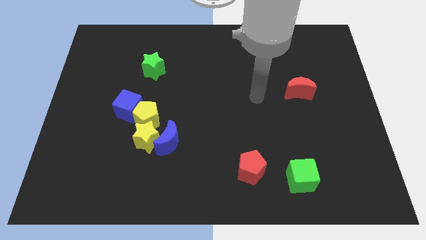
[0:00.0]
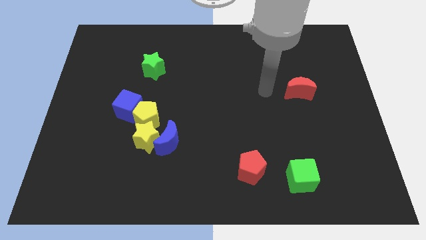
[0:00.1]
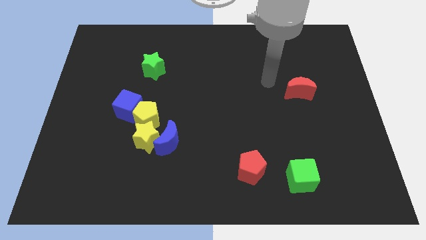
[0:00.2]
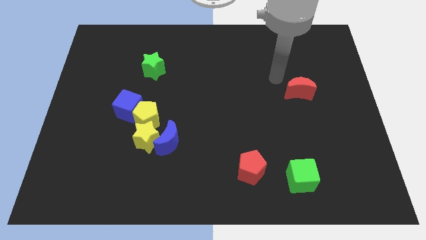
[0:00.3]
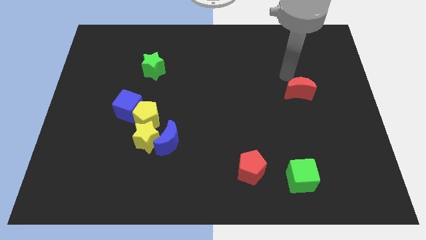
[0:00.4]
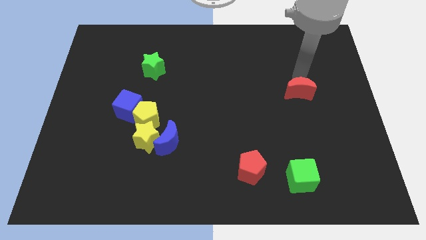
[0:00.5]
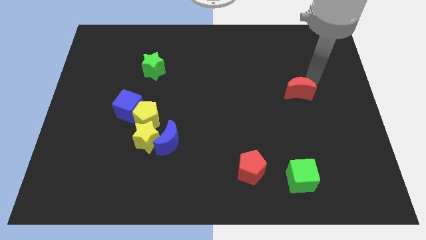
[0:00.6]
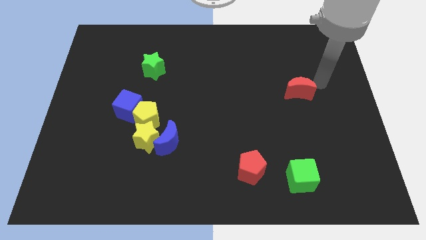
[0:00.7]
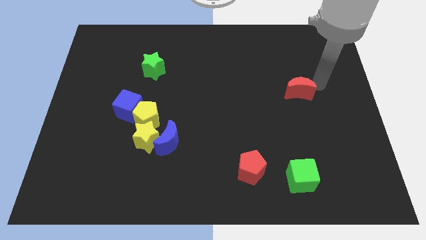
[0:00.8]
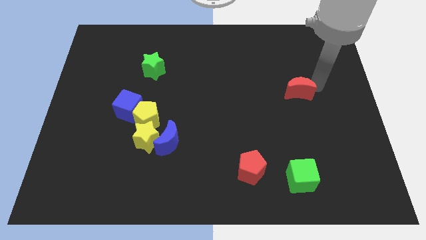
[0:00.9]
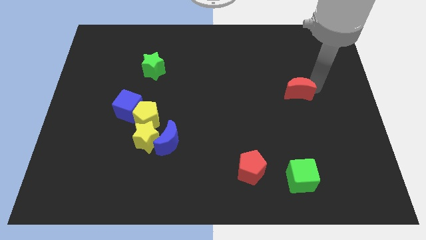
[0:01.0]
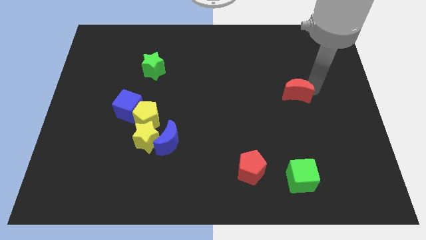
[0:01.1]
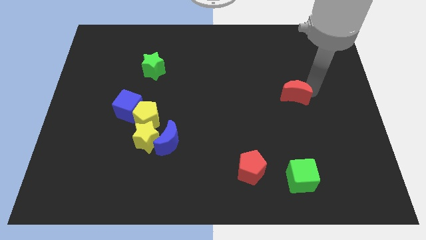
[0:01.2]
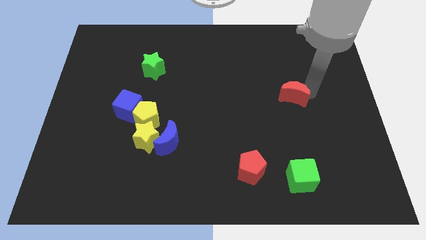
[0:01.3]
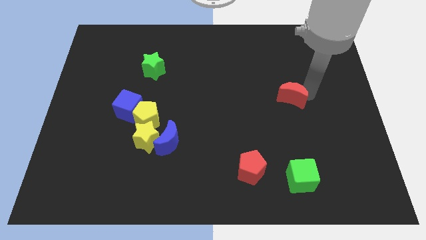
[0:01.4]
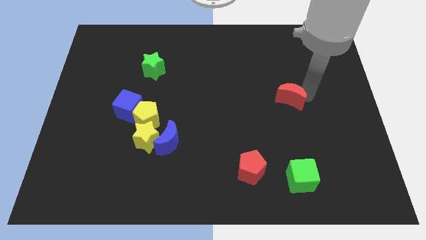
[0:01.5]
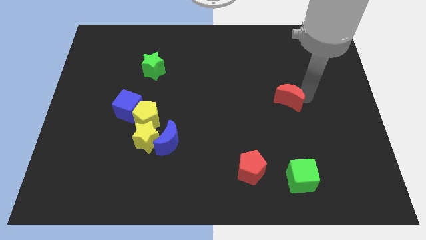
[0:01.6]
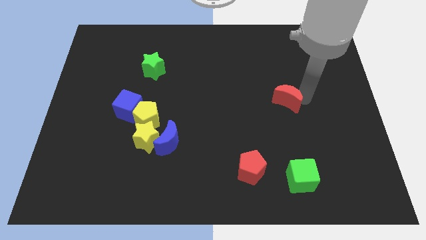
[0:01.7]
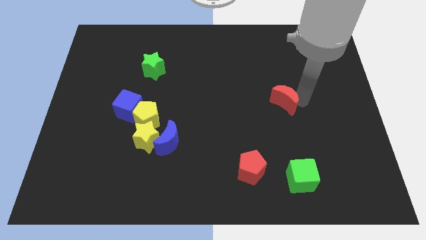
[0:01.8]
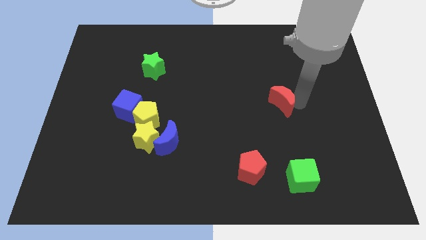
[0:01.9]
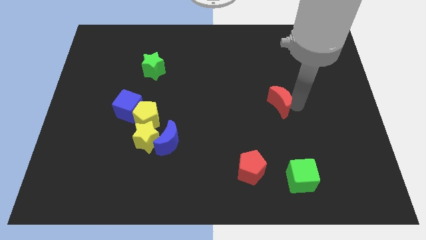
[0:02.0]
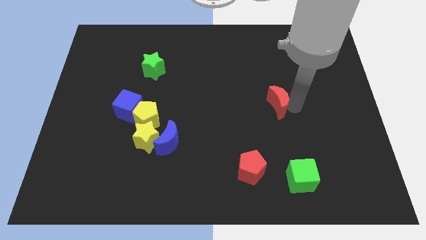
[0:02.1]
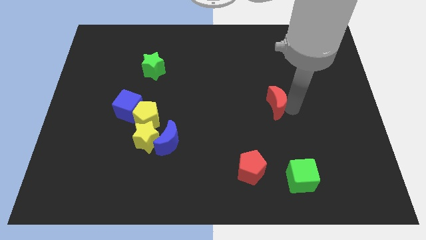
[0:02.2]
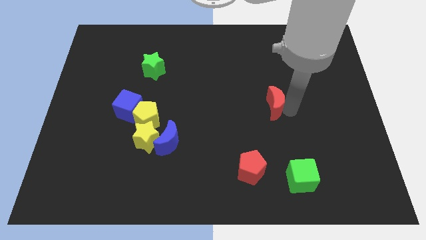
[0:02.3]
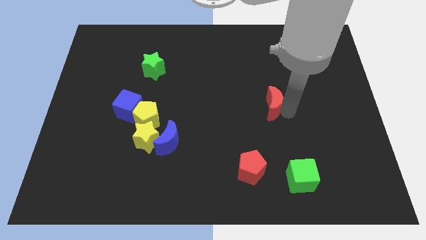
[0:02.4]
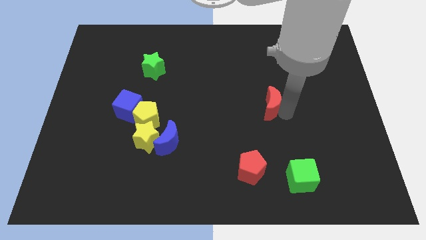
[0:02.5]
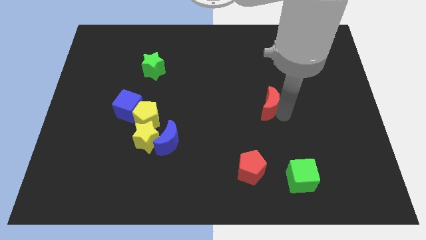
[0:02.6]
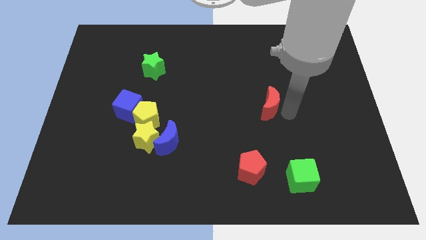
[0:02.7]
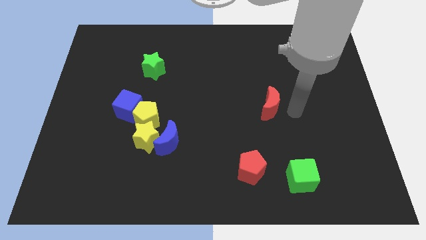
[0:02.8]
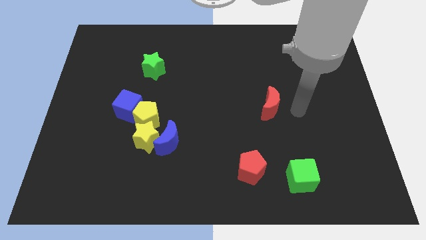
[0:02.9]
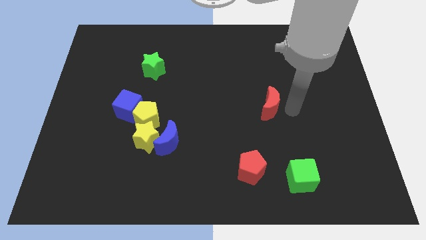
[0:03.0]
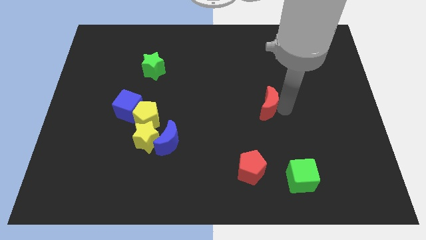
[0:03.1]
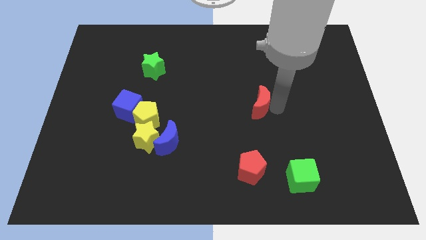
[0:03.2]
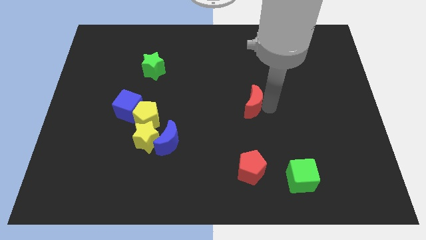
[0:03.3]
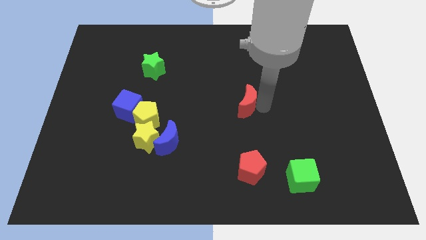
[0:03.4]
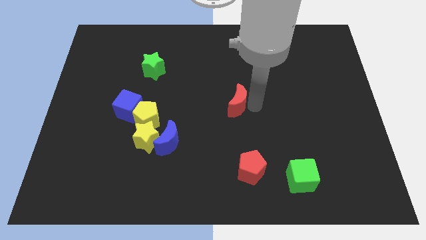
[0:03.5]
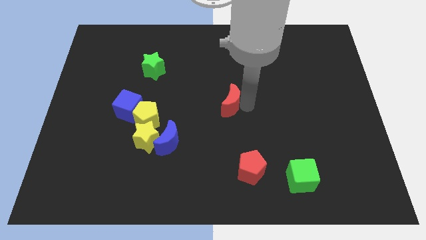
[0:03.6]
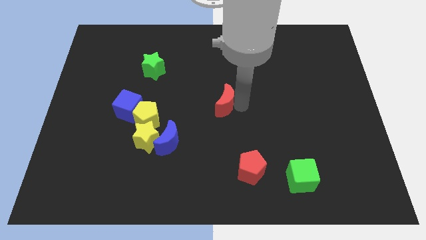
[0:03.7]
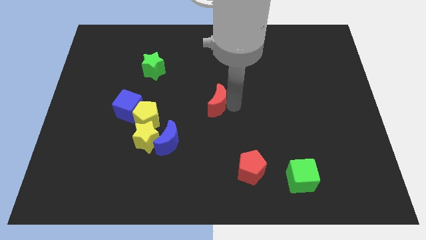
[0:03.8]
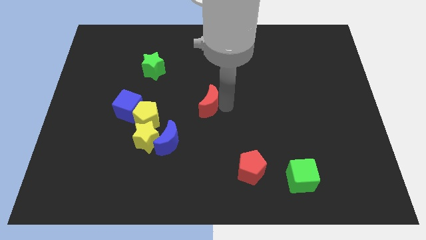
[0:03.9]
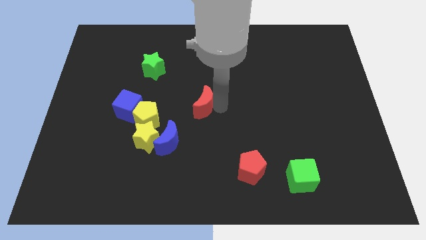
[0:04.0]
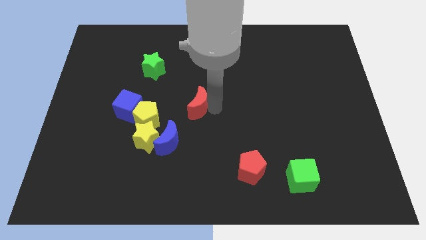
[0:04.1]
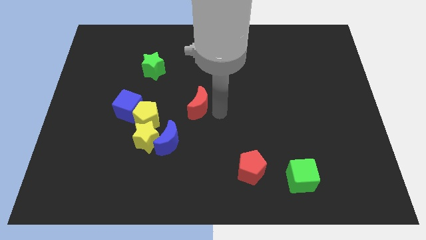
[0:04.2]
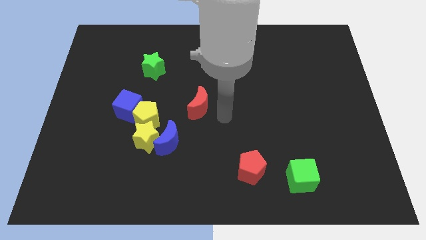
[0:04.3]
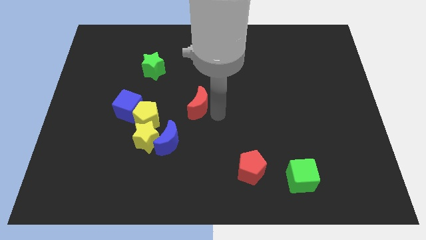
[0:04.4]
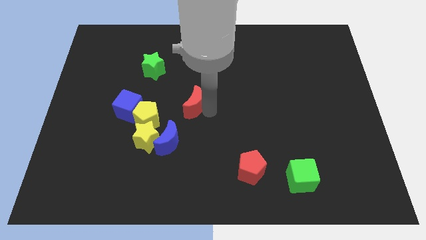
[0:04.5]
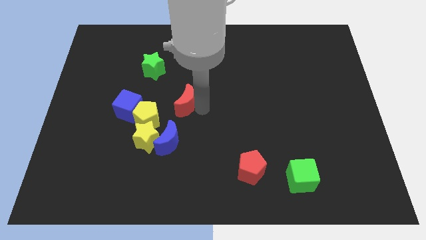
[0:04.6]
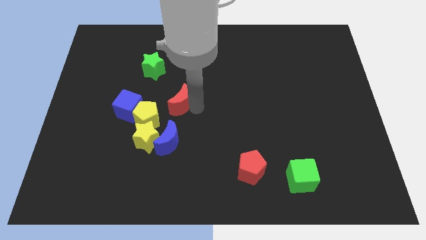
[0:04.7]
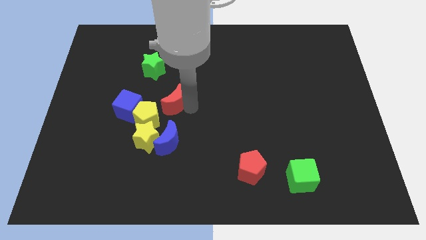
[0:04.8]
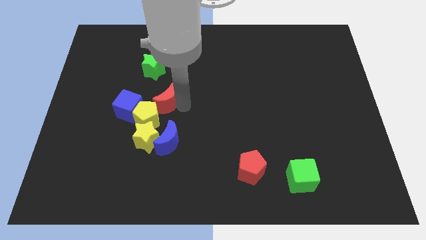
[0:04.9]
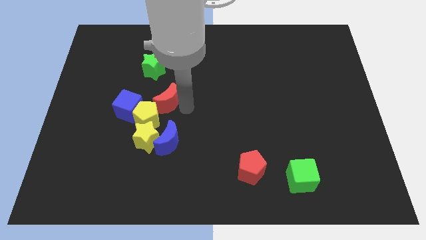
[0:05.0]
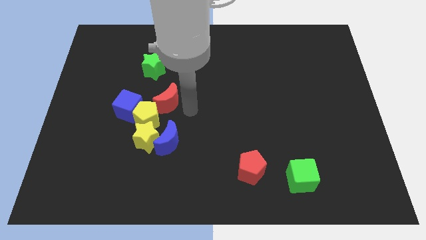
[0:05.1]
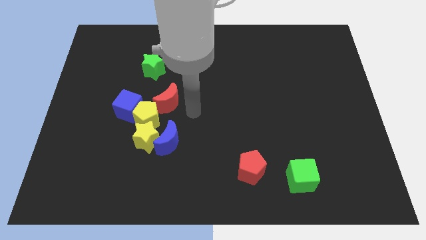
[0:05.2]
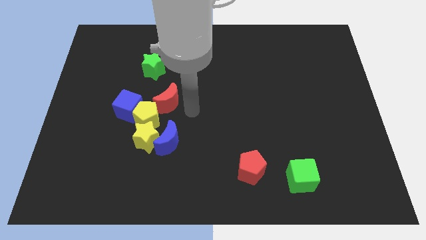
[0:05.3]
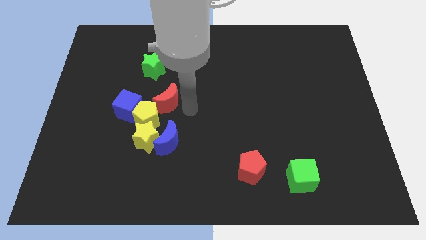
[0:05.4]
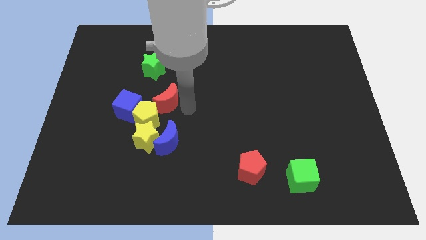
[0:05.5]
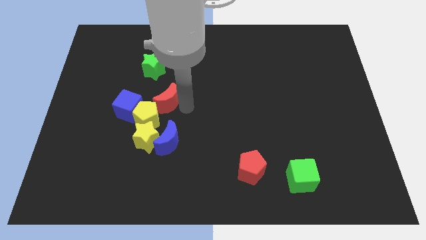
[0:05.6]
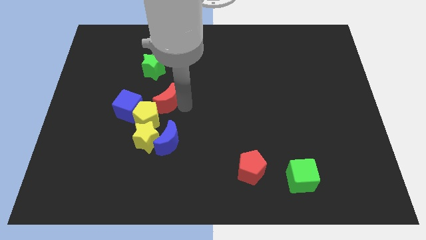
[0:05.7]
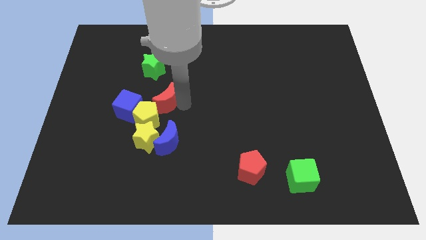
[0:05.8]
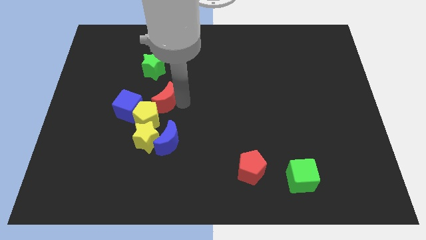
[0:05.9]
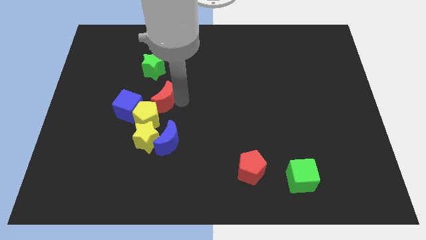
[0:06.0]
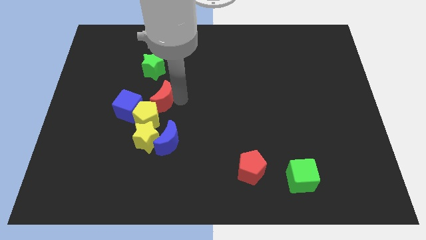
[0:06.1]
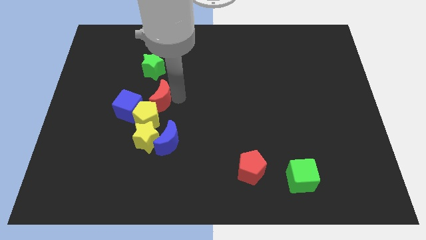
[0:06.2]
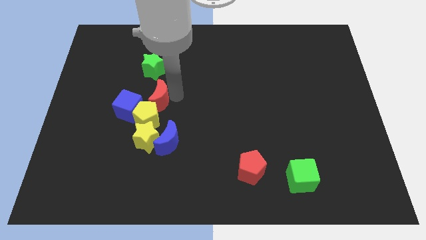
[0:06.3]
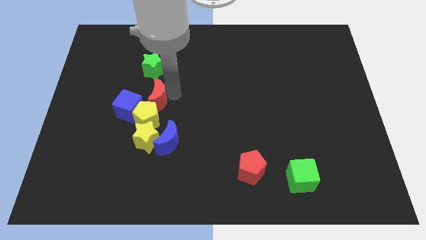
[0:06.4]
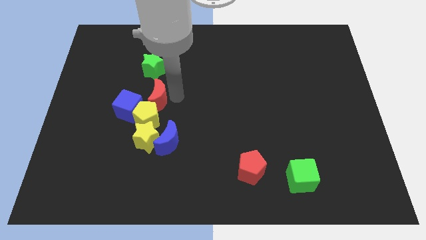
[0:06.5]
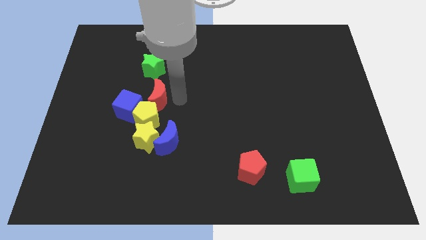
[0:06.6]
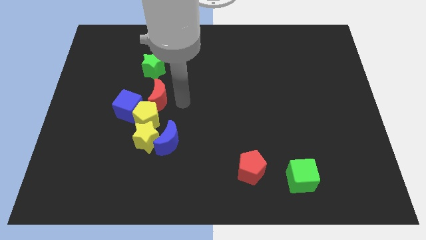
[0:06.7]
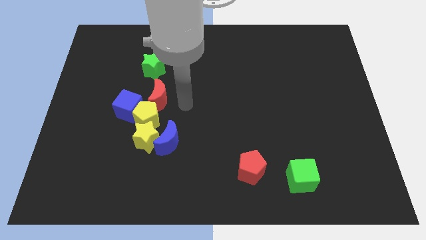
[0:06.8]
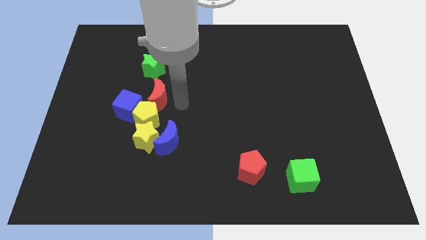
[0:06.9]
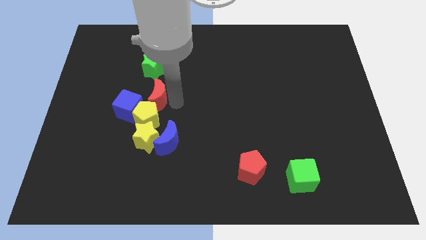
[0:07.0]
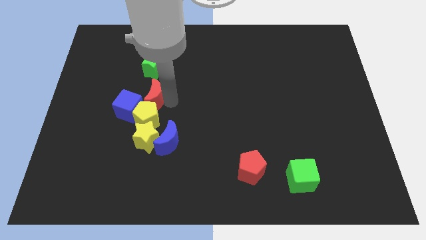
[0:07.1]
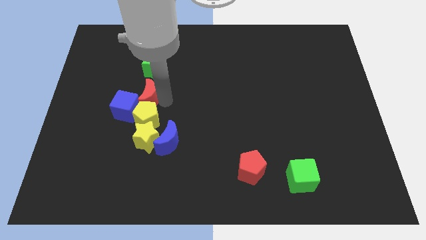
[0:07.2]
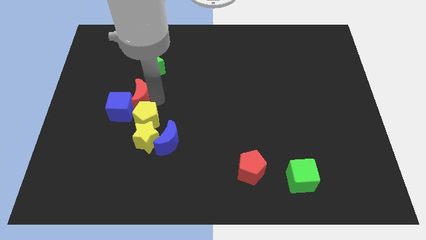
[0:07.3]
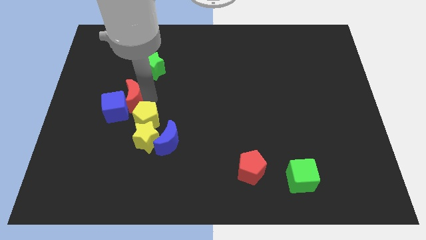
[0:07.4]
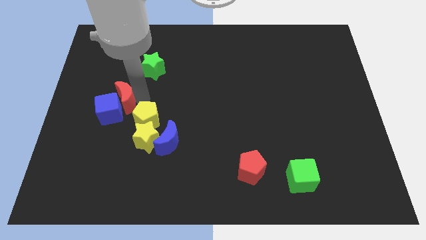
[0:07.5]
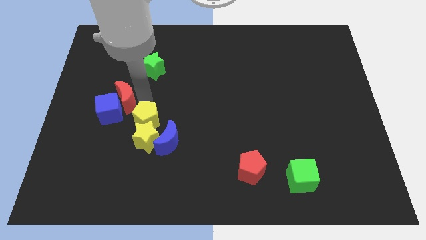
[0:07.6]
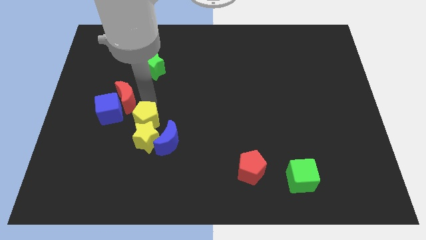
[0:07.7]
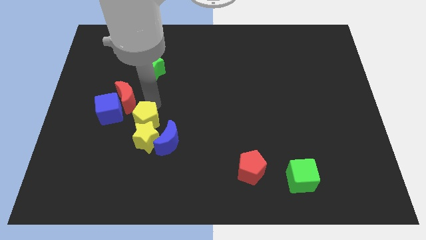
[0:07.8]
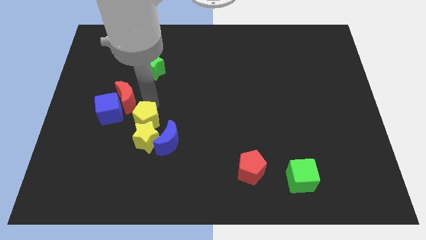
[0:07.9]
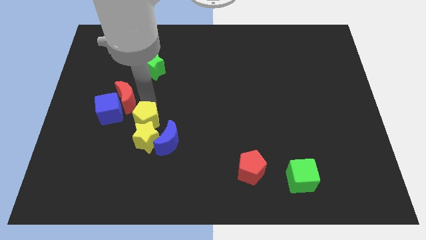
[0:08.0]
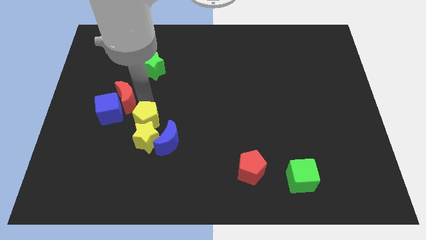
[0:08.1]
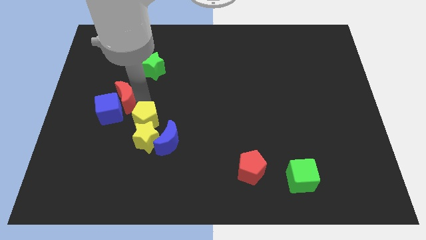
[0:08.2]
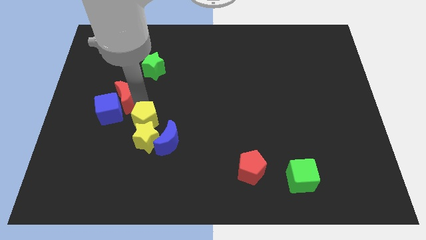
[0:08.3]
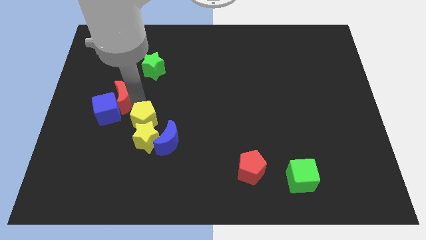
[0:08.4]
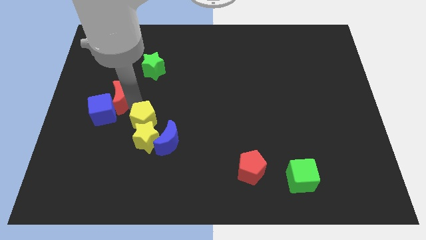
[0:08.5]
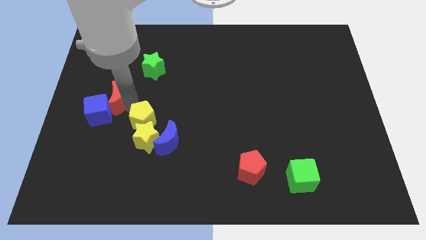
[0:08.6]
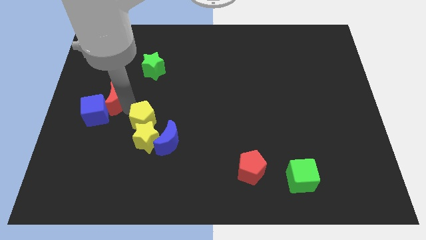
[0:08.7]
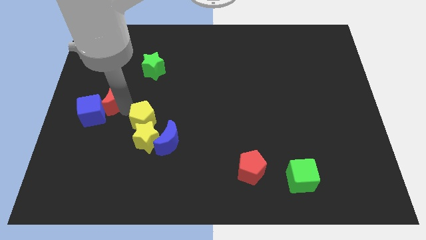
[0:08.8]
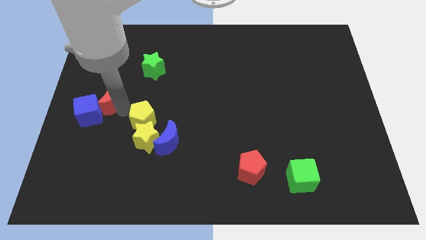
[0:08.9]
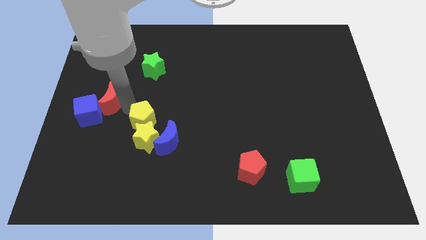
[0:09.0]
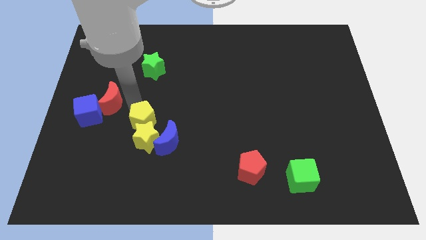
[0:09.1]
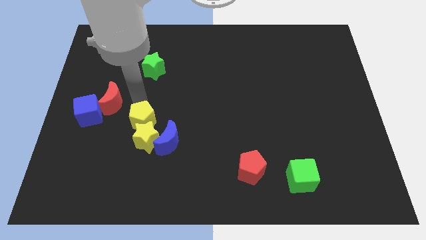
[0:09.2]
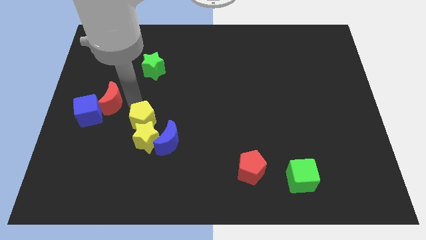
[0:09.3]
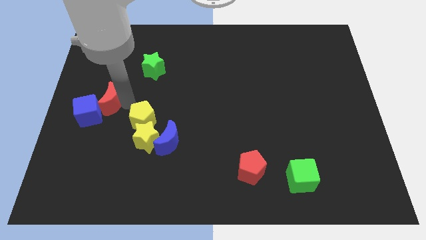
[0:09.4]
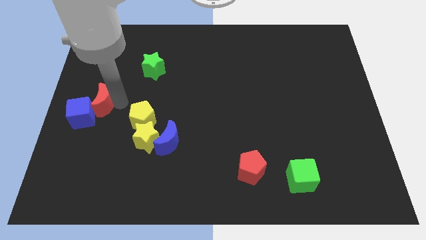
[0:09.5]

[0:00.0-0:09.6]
move the red moon to the left side
